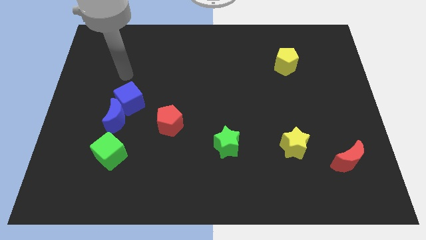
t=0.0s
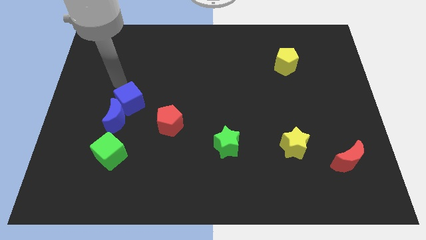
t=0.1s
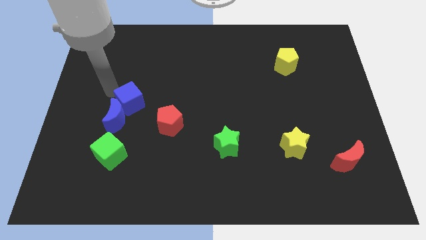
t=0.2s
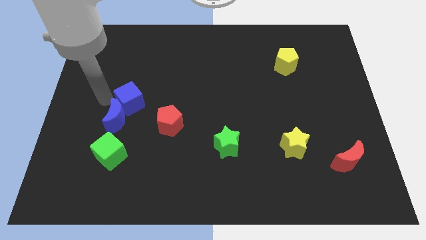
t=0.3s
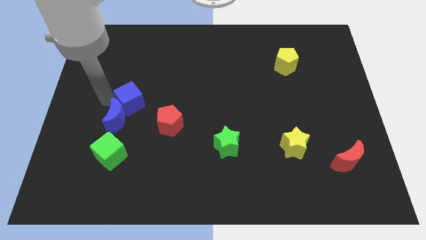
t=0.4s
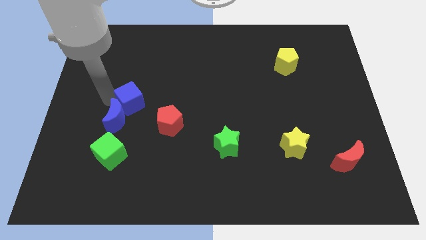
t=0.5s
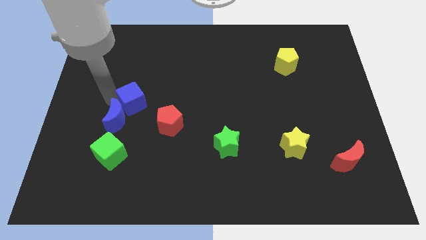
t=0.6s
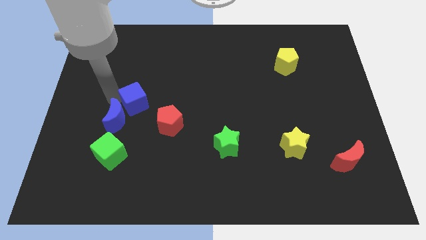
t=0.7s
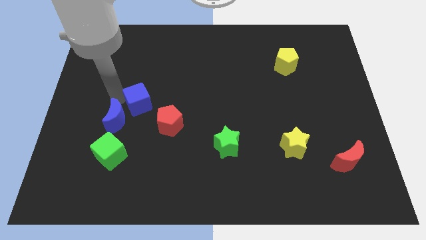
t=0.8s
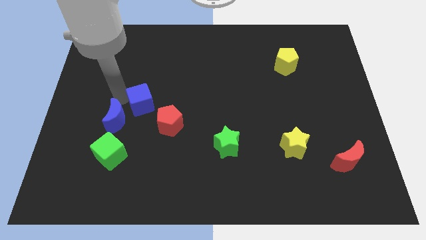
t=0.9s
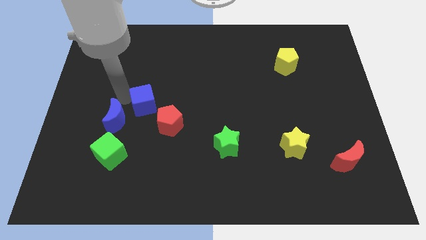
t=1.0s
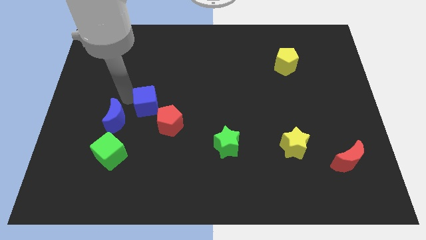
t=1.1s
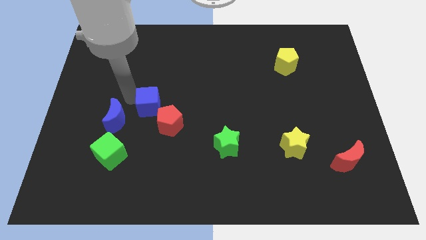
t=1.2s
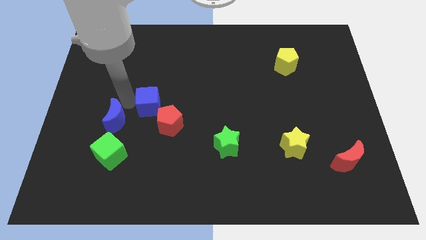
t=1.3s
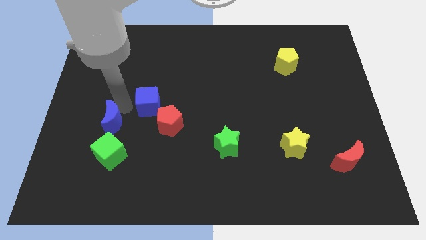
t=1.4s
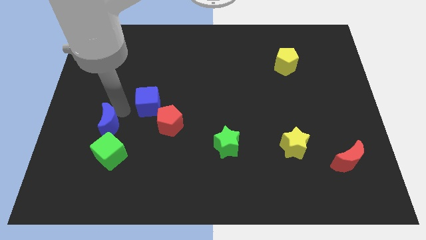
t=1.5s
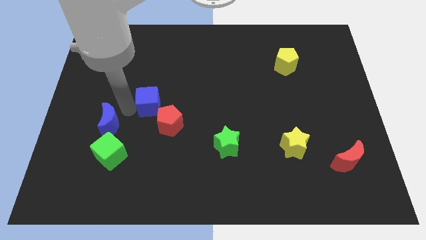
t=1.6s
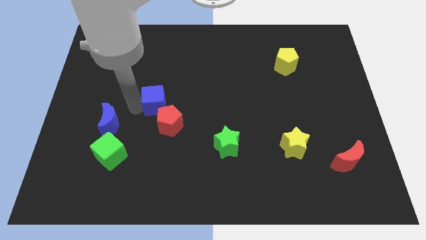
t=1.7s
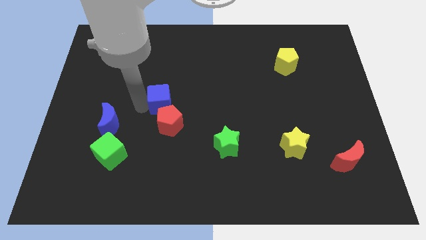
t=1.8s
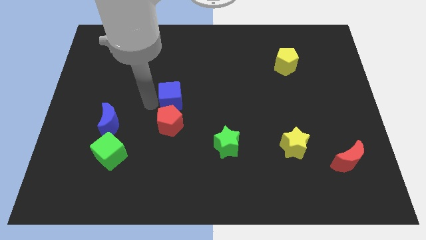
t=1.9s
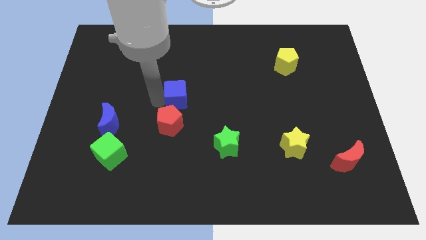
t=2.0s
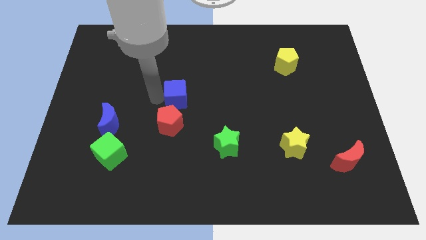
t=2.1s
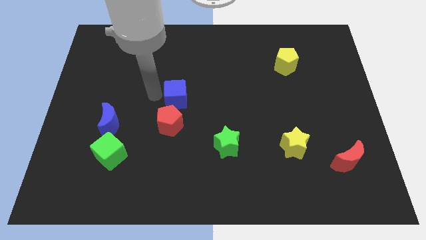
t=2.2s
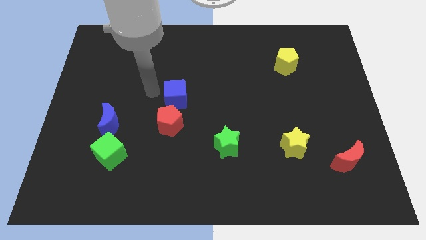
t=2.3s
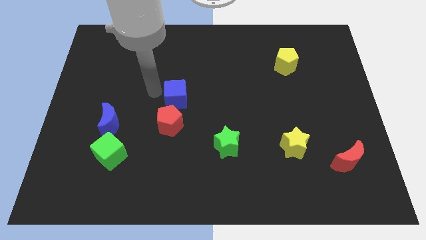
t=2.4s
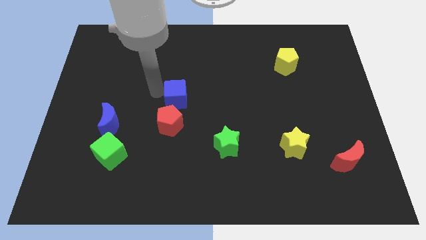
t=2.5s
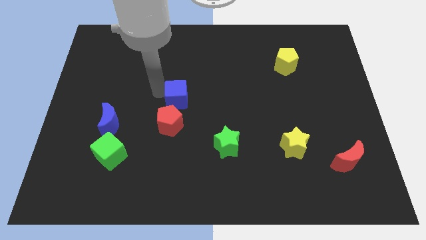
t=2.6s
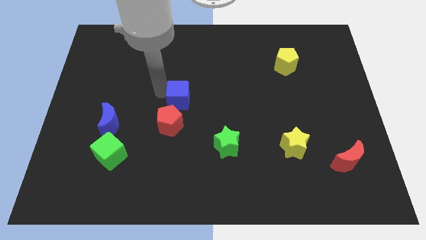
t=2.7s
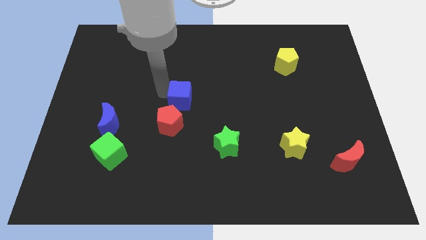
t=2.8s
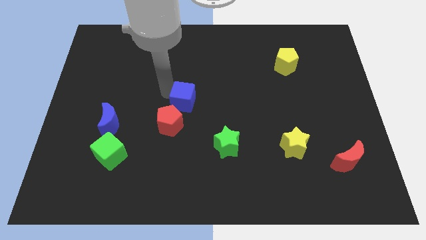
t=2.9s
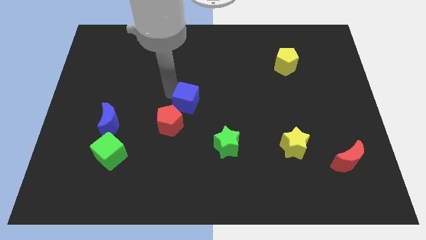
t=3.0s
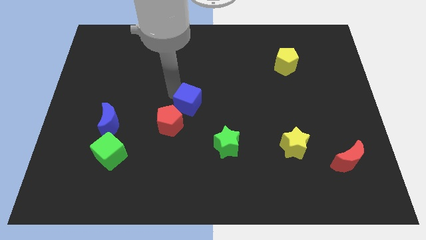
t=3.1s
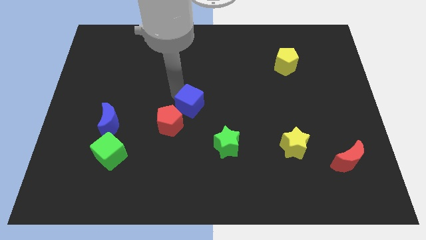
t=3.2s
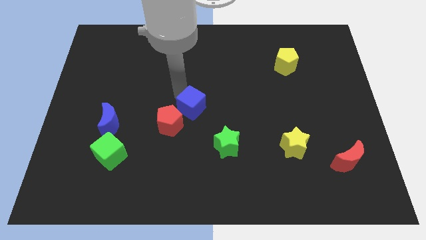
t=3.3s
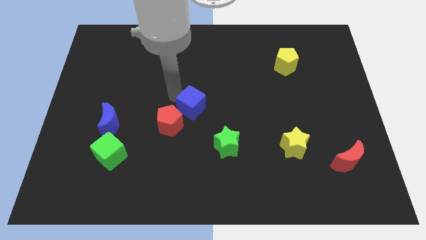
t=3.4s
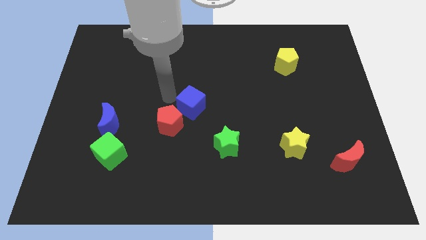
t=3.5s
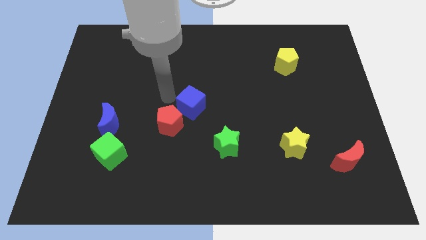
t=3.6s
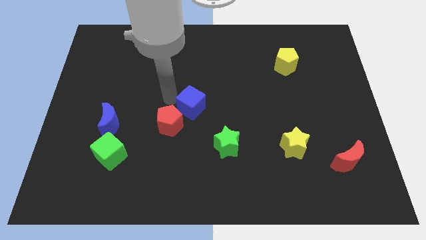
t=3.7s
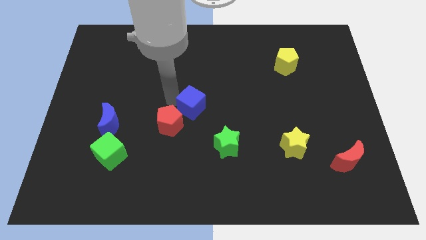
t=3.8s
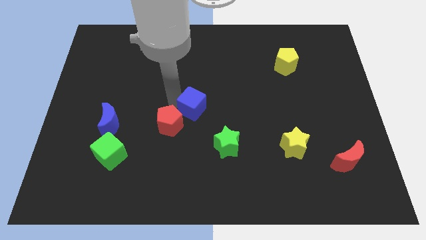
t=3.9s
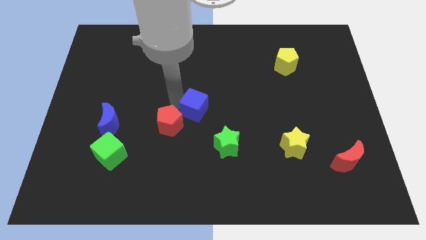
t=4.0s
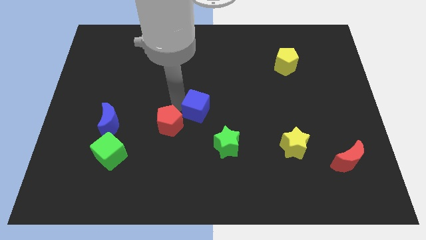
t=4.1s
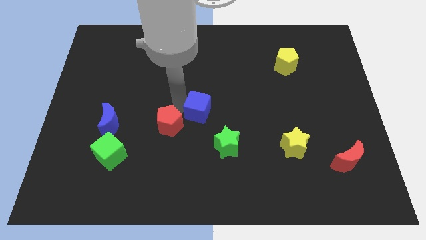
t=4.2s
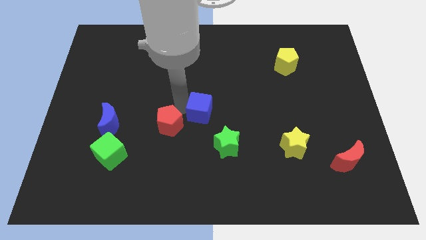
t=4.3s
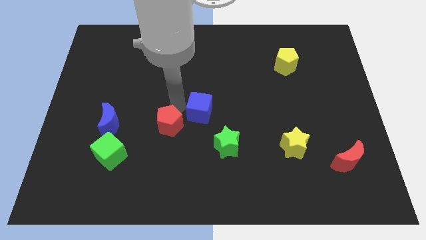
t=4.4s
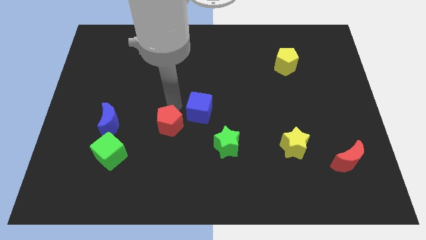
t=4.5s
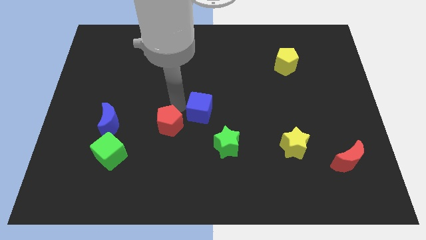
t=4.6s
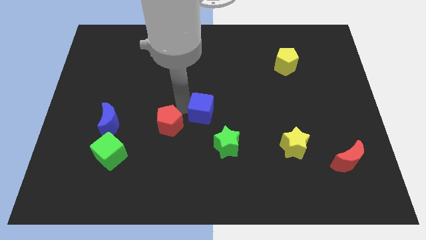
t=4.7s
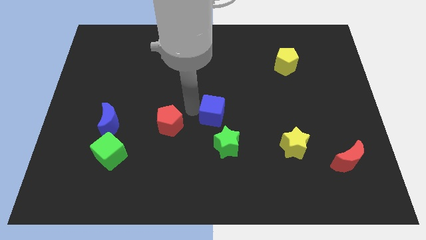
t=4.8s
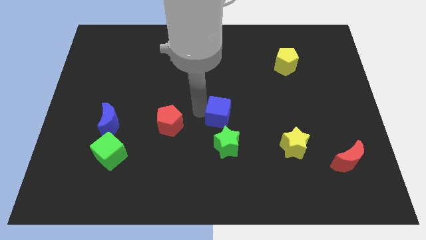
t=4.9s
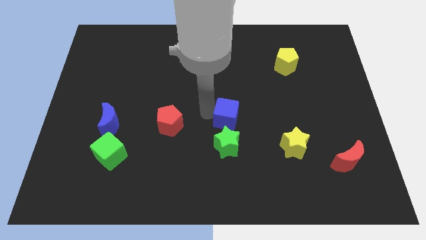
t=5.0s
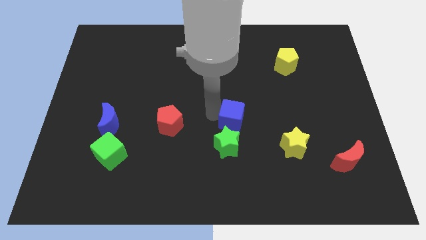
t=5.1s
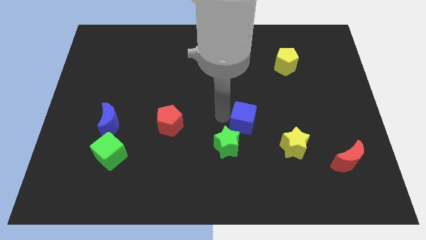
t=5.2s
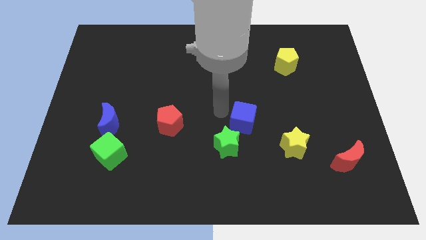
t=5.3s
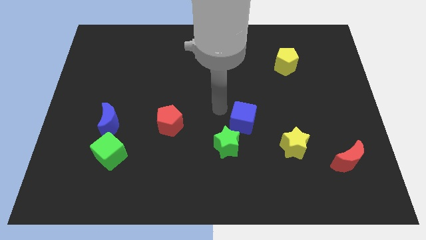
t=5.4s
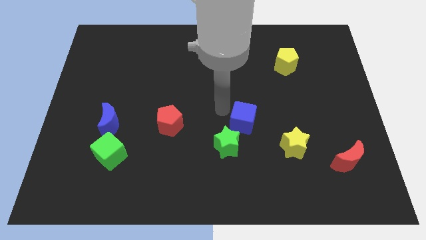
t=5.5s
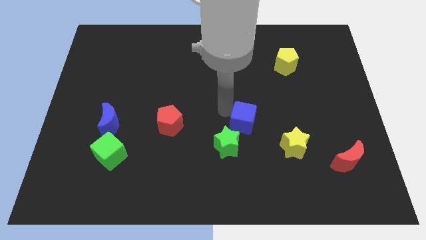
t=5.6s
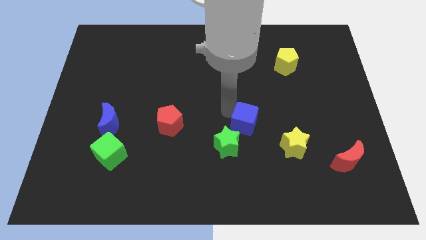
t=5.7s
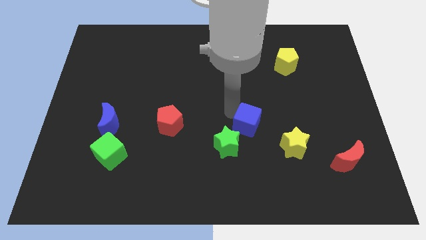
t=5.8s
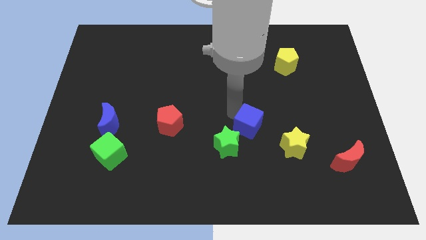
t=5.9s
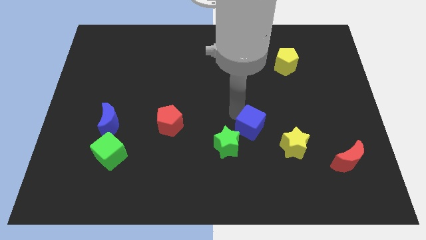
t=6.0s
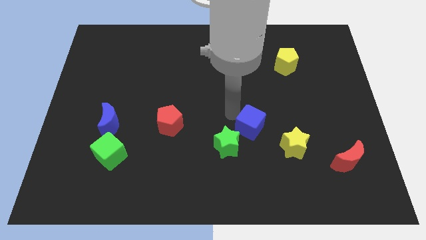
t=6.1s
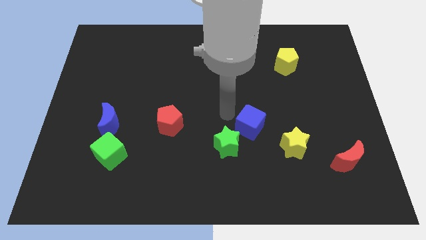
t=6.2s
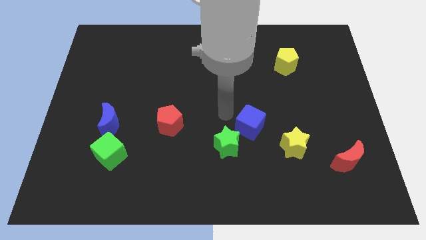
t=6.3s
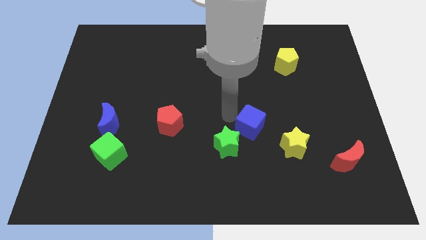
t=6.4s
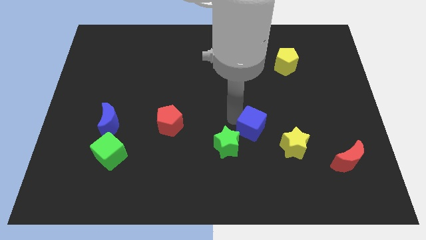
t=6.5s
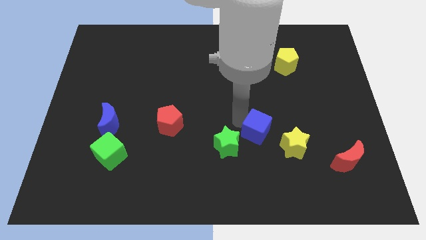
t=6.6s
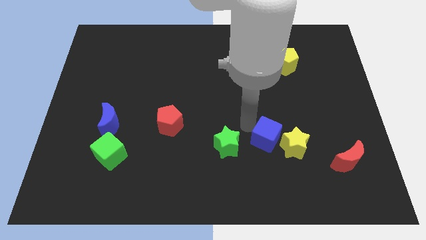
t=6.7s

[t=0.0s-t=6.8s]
push the blue cube to the yellow star
